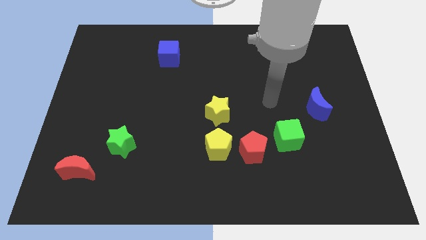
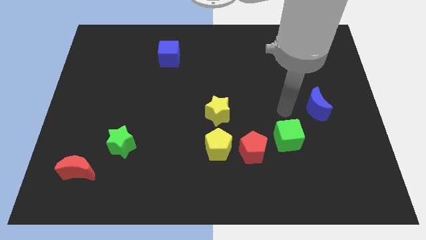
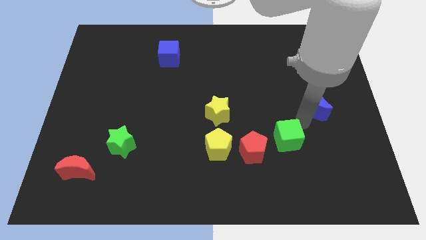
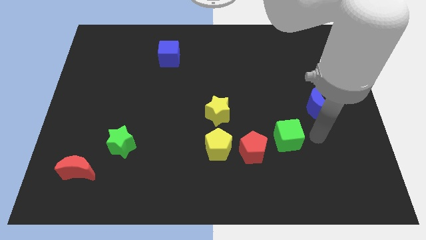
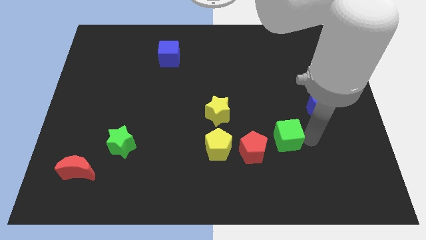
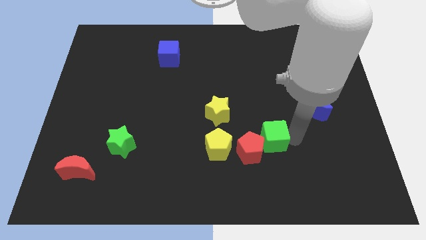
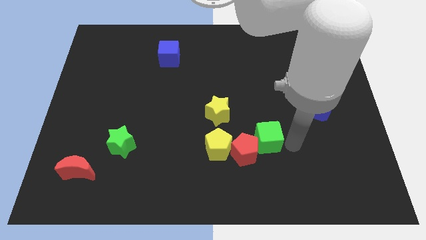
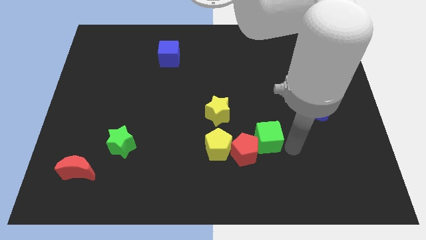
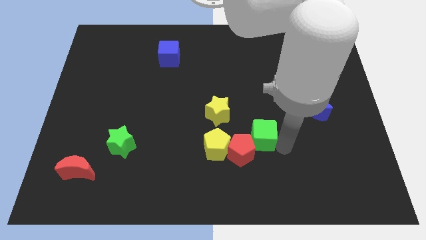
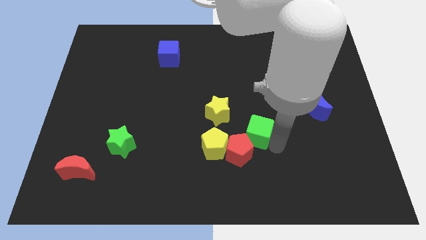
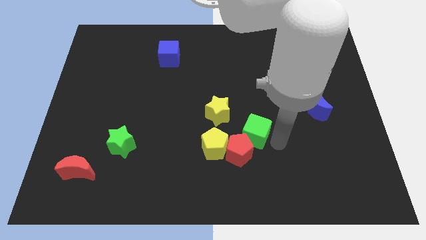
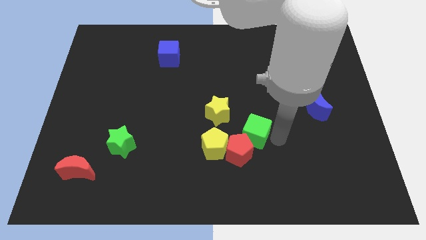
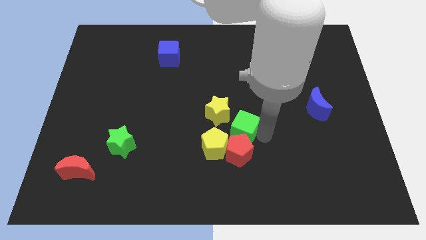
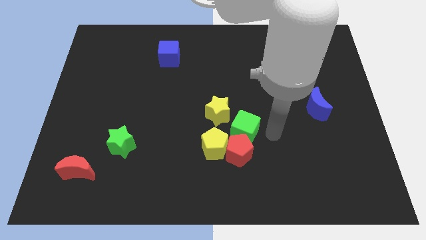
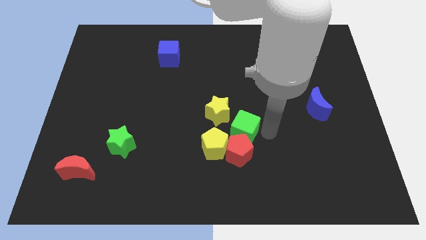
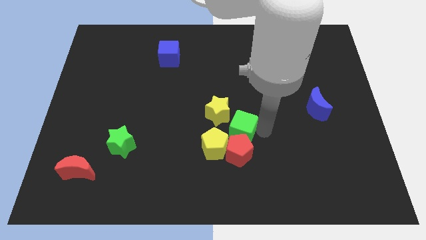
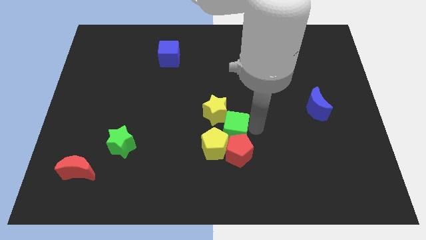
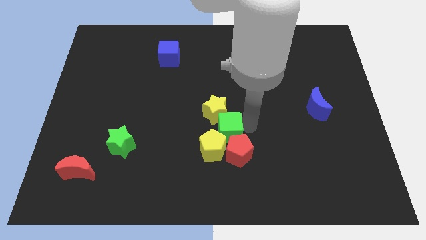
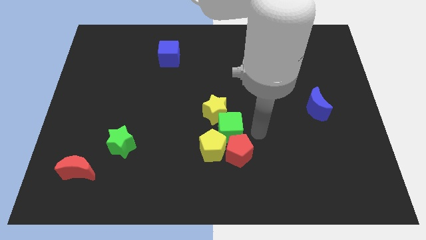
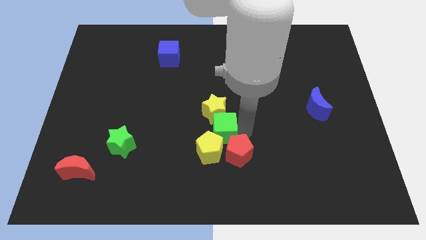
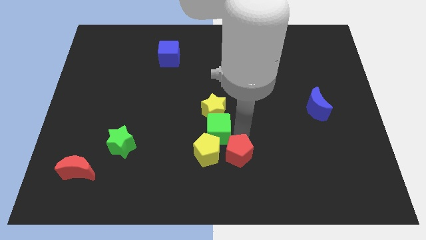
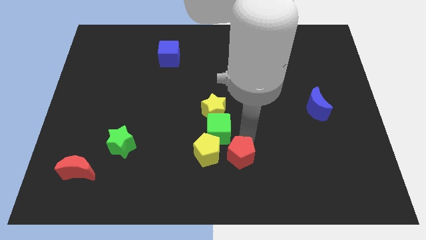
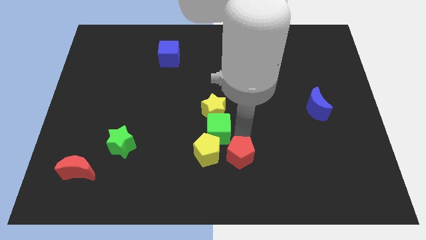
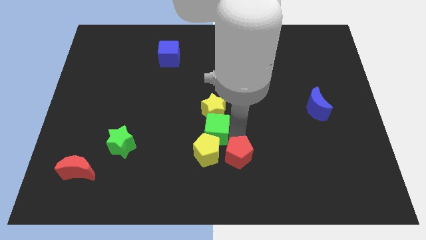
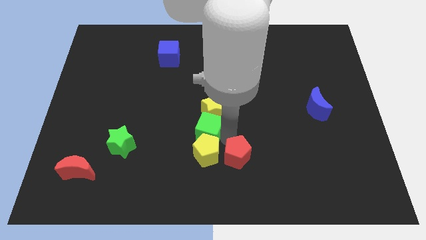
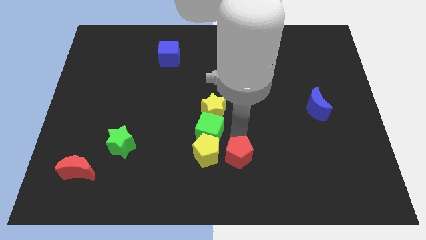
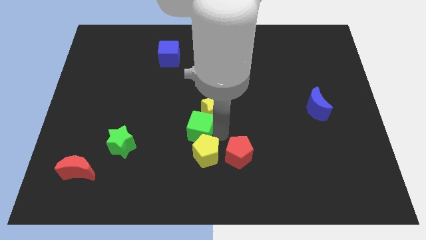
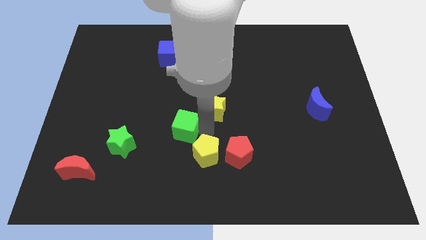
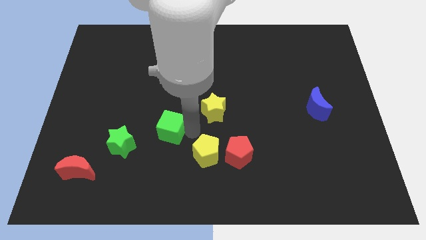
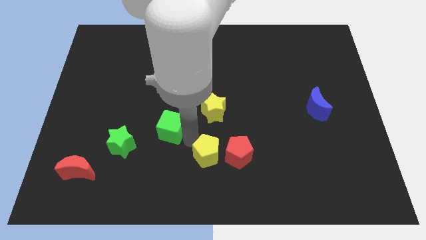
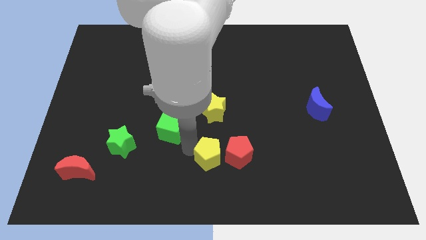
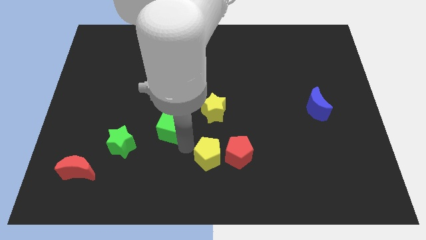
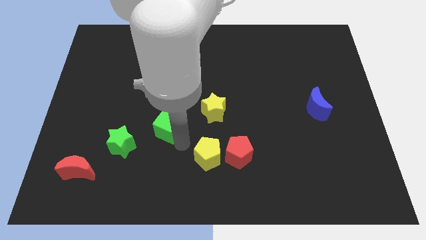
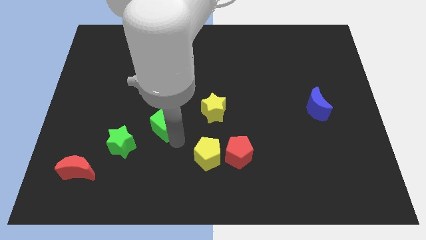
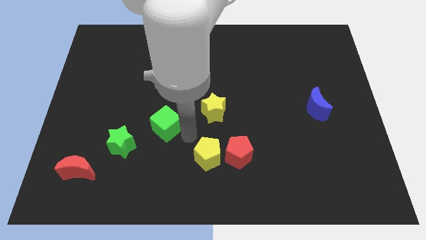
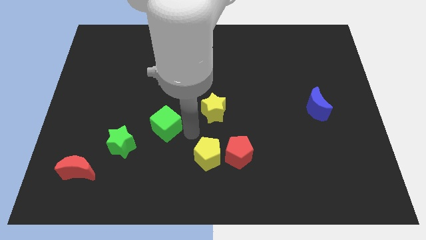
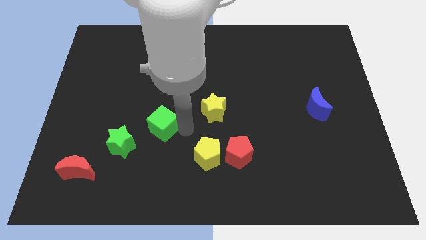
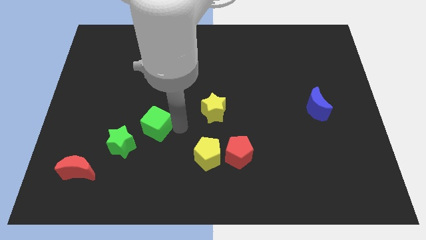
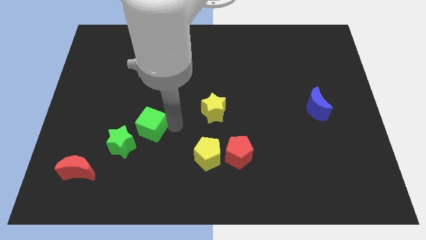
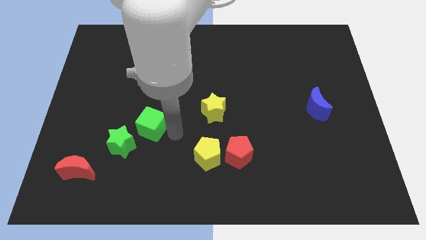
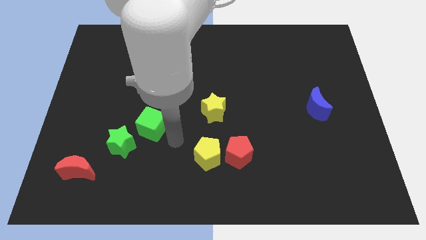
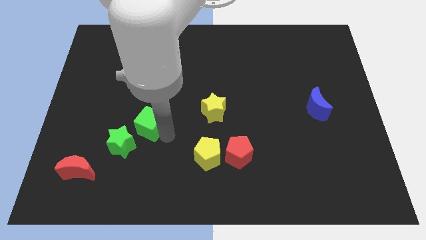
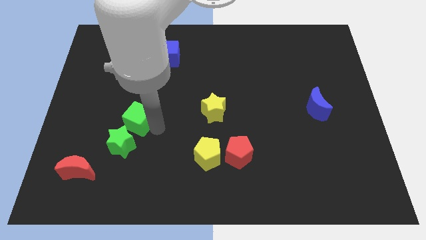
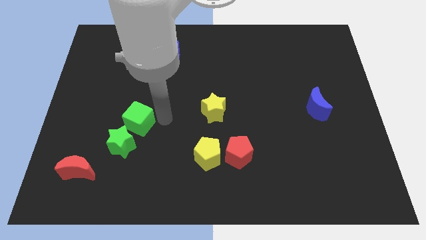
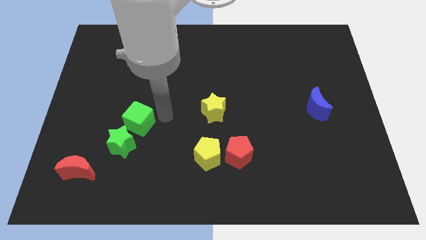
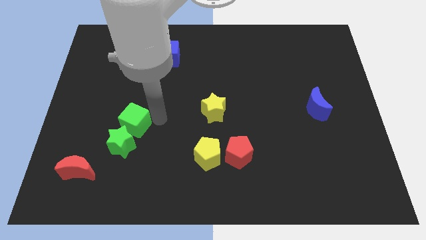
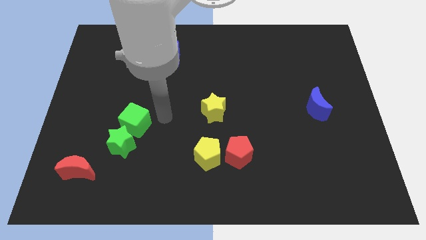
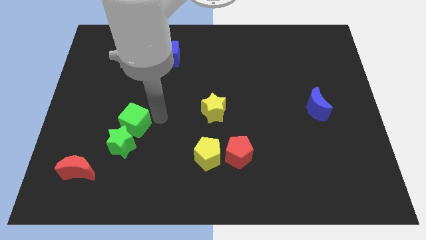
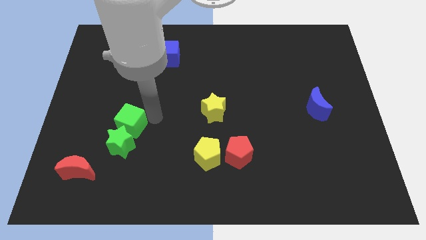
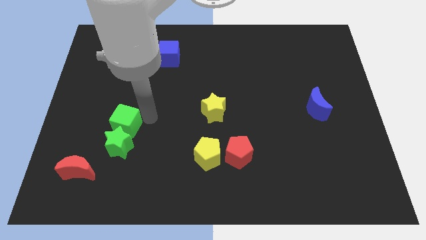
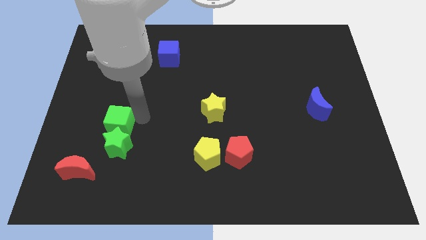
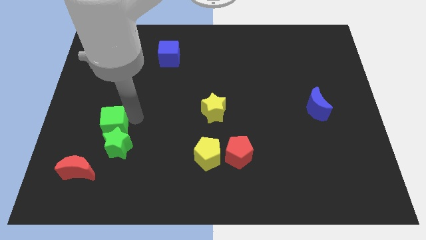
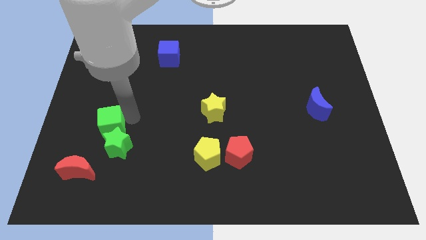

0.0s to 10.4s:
put the green cube to the top side of the red moon

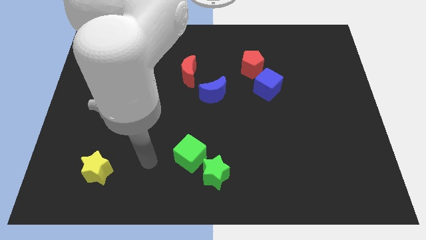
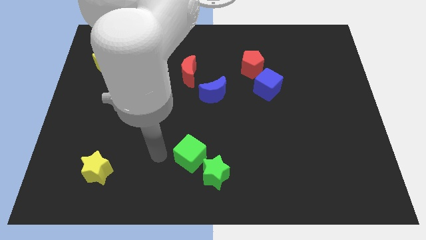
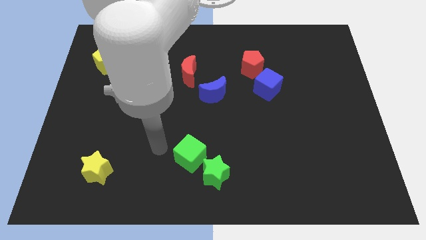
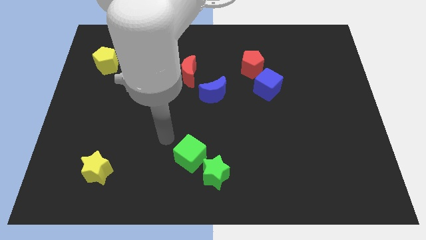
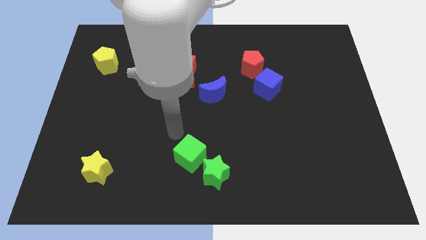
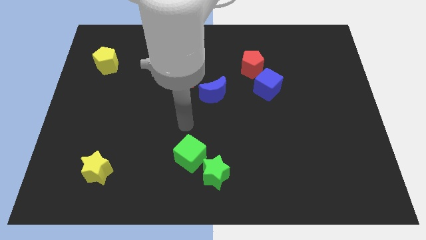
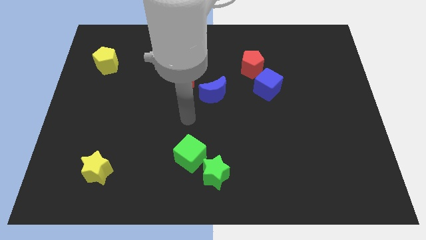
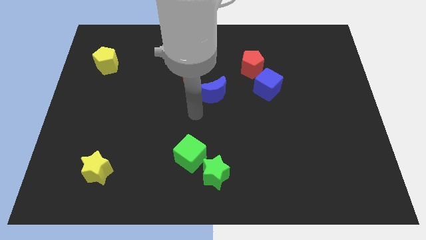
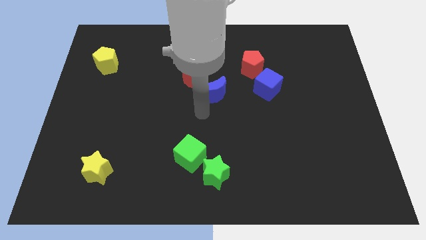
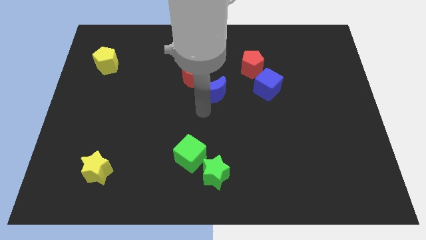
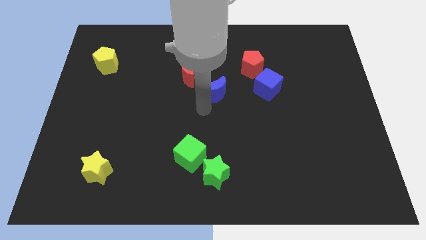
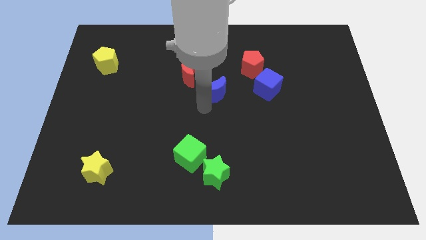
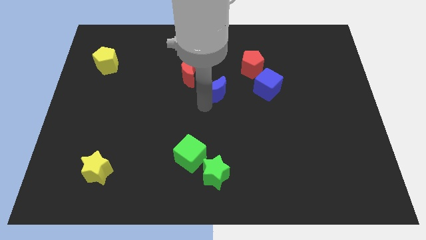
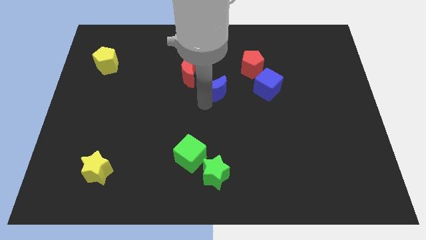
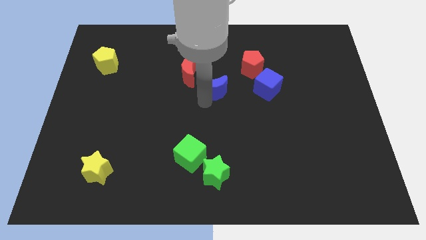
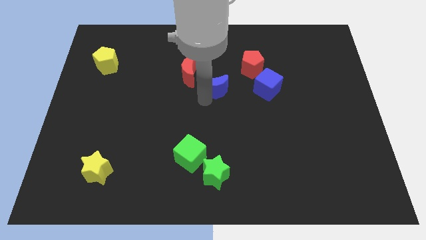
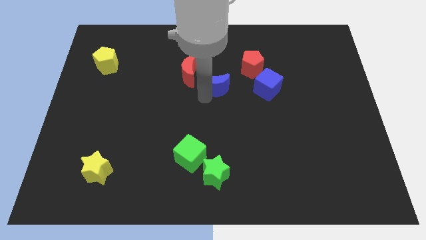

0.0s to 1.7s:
put the blue moon right of the red moon

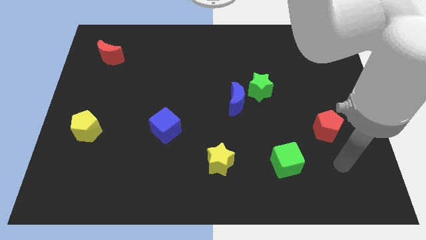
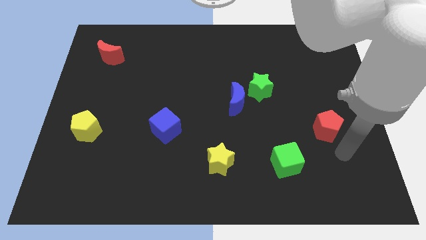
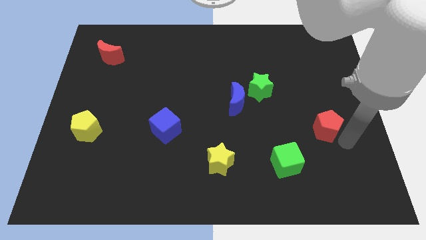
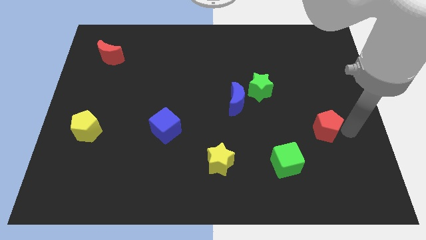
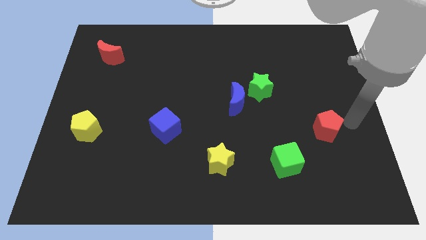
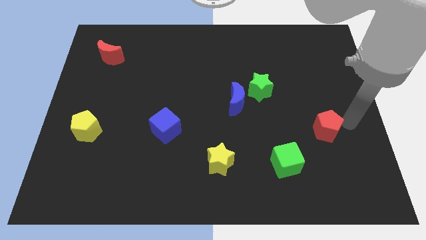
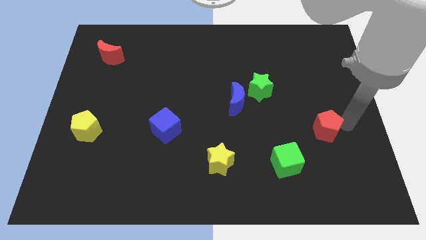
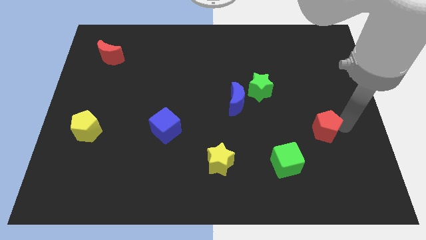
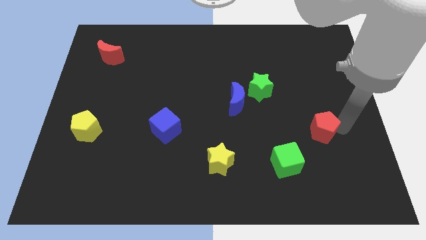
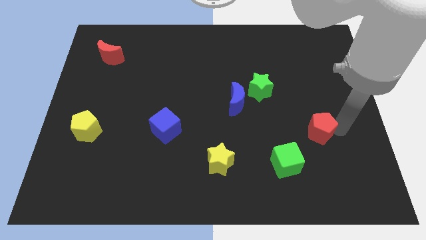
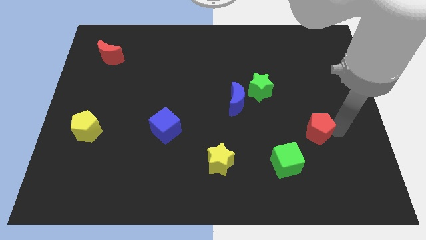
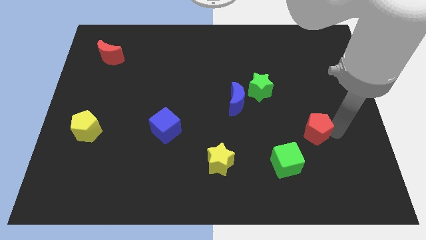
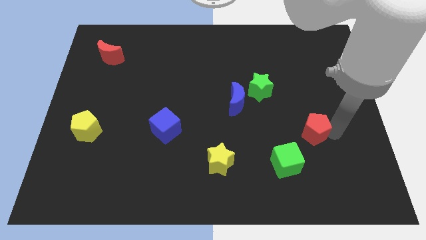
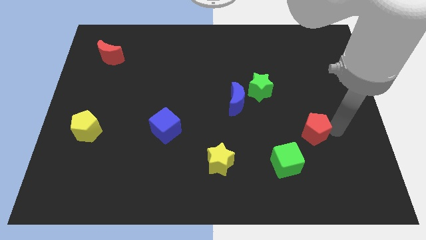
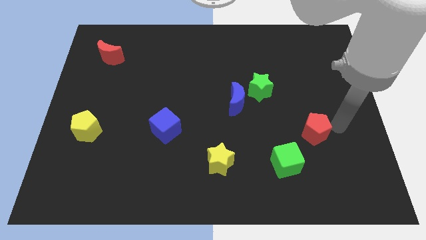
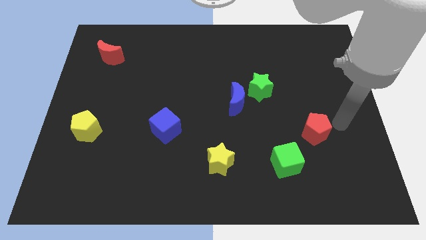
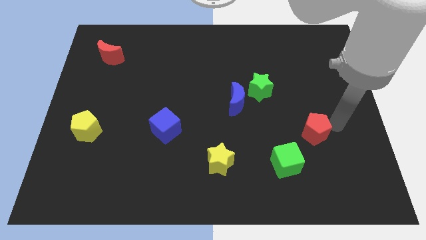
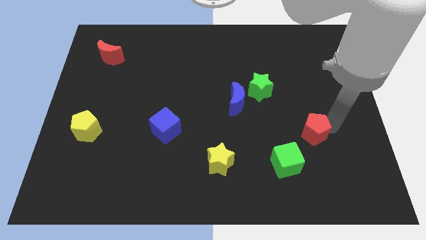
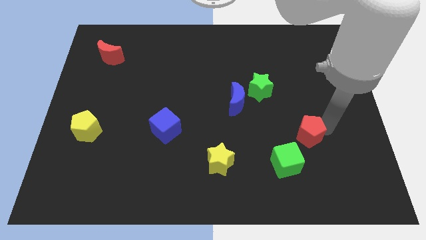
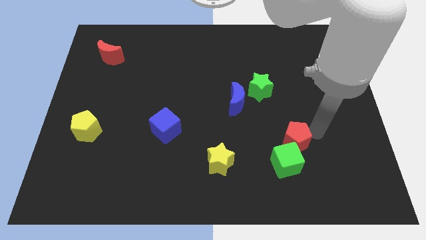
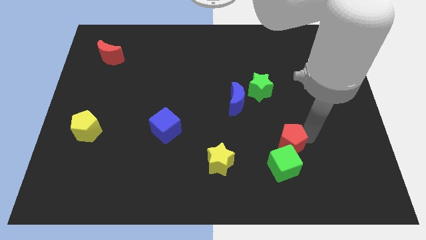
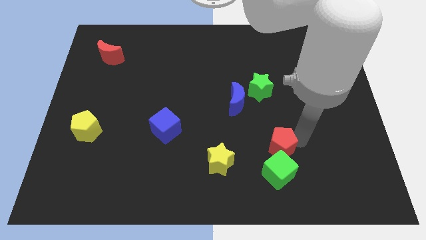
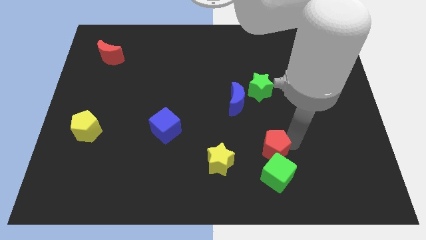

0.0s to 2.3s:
push the red pentagon to the top left of the green cube
